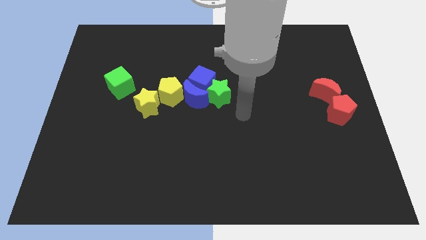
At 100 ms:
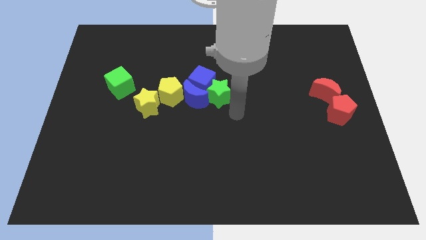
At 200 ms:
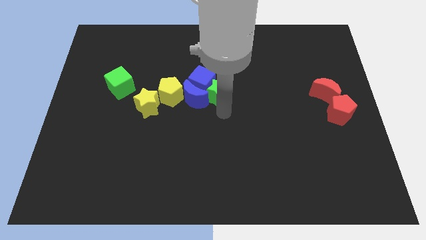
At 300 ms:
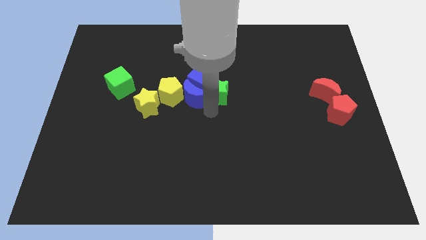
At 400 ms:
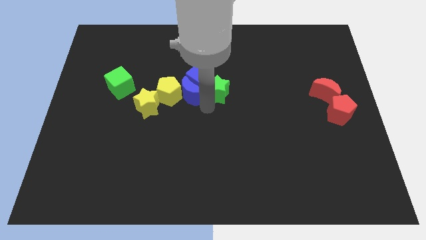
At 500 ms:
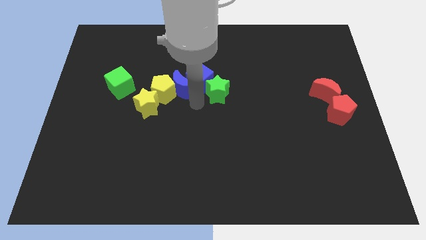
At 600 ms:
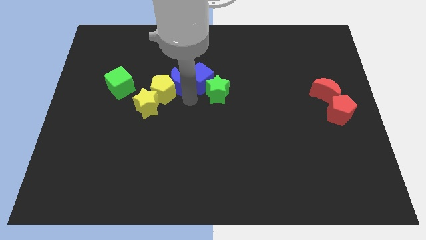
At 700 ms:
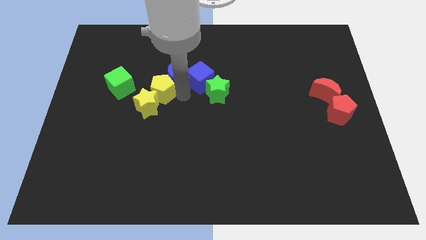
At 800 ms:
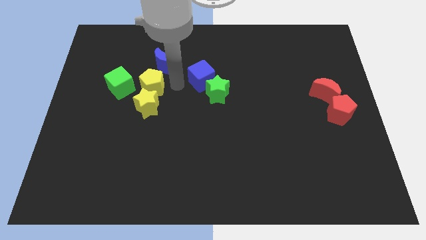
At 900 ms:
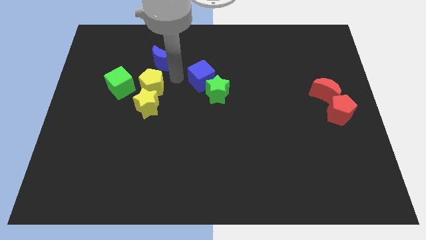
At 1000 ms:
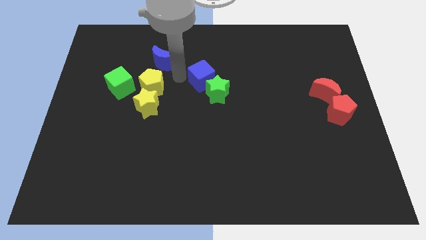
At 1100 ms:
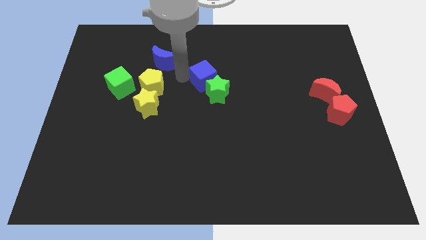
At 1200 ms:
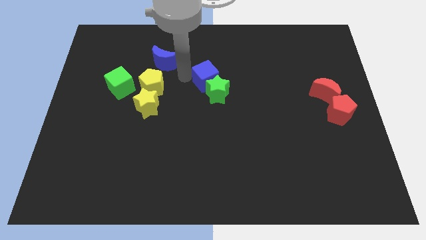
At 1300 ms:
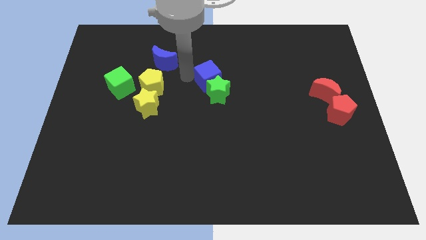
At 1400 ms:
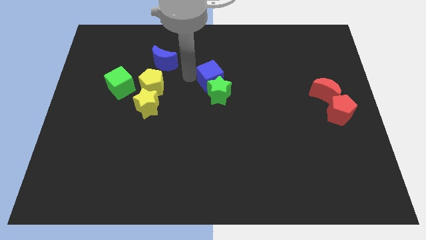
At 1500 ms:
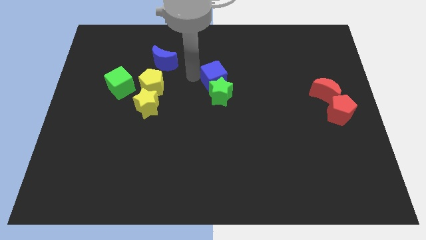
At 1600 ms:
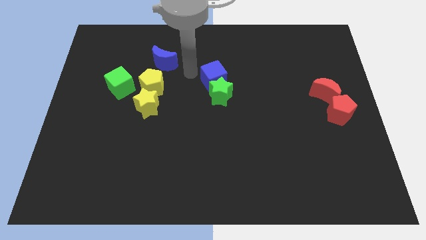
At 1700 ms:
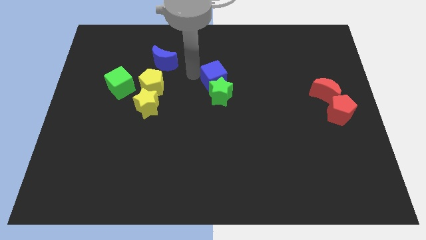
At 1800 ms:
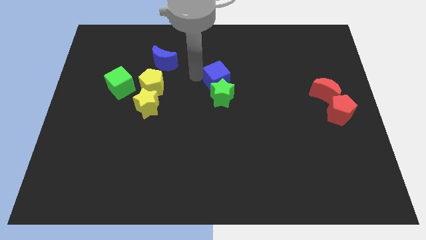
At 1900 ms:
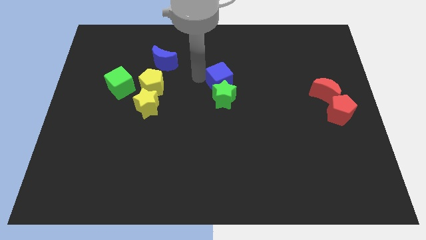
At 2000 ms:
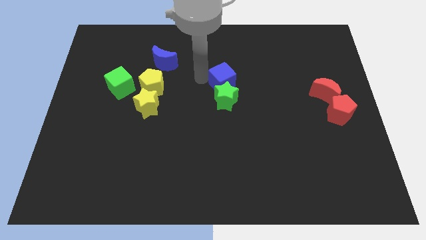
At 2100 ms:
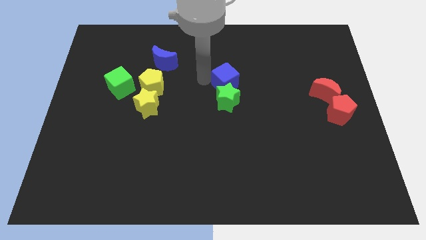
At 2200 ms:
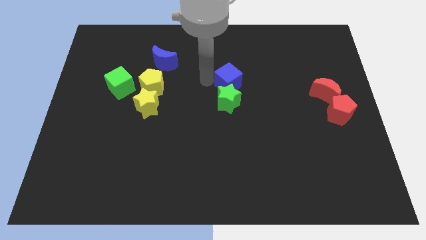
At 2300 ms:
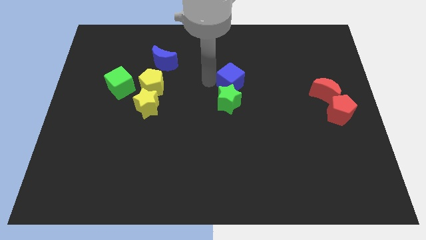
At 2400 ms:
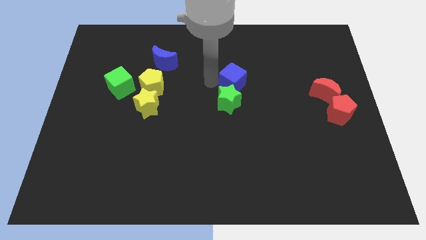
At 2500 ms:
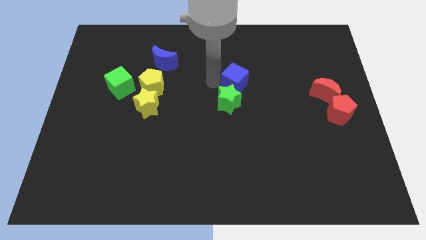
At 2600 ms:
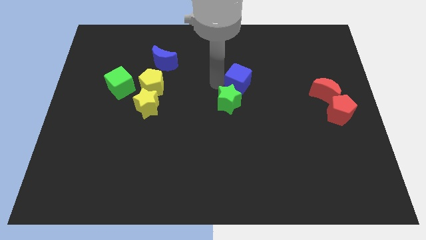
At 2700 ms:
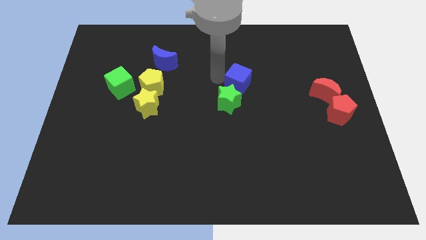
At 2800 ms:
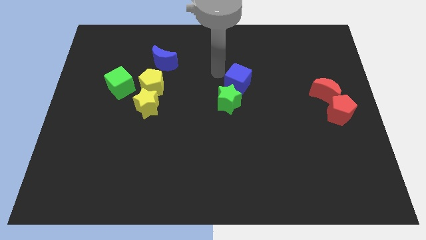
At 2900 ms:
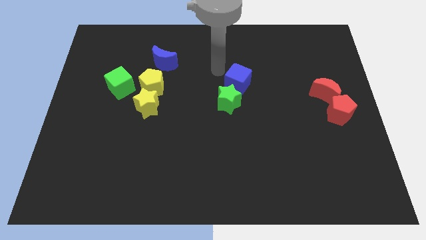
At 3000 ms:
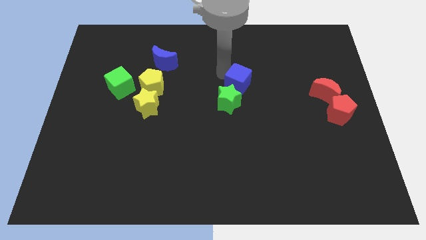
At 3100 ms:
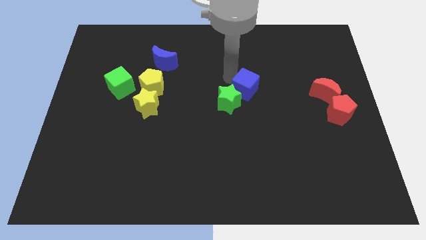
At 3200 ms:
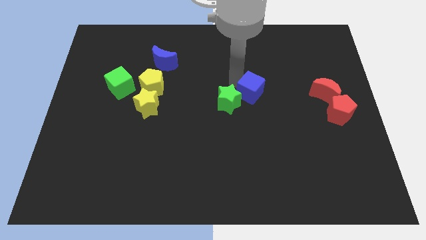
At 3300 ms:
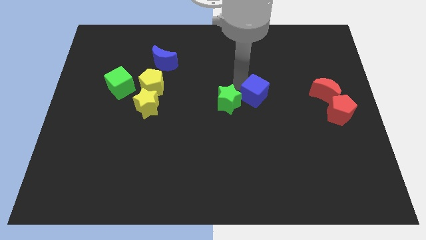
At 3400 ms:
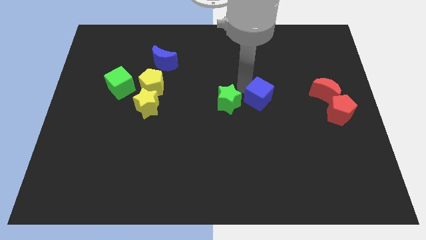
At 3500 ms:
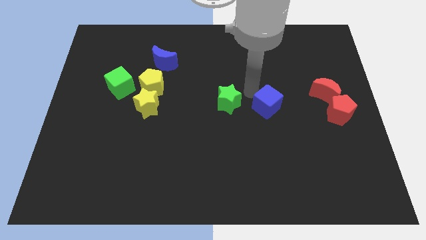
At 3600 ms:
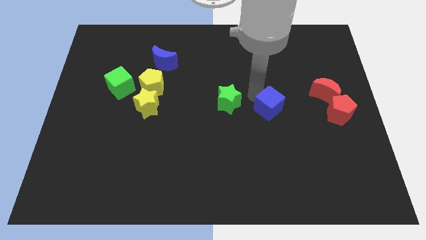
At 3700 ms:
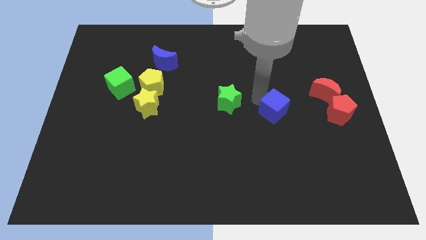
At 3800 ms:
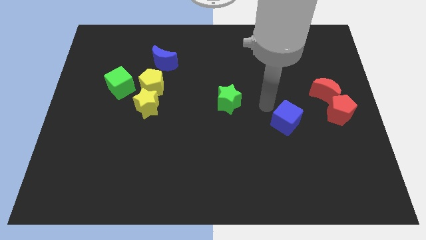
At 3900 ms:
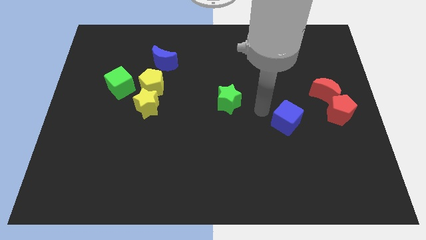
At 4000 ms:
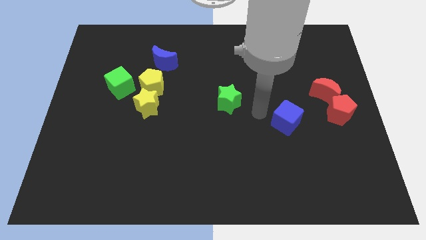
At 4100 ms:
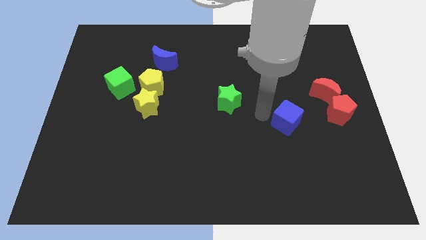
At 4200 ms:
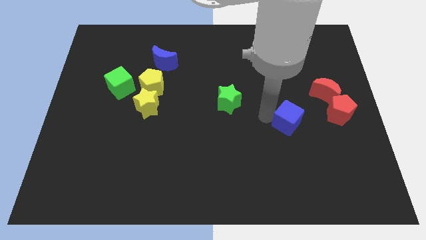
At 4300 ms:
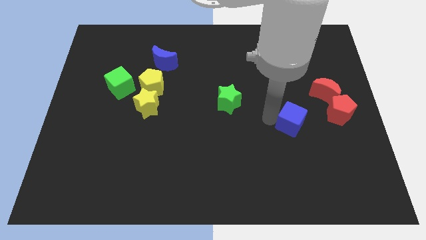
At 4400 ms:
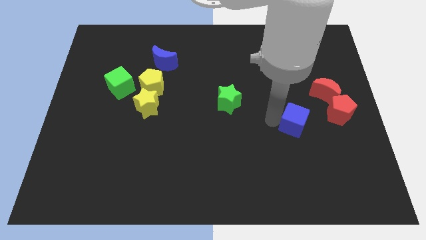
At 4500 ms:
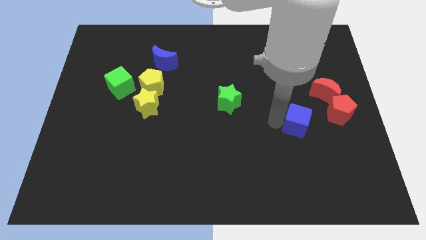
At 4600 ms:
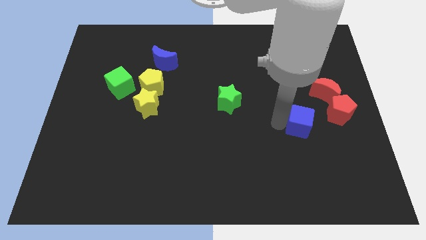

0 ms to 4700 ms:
push the blue cube to the bottom left side of the red pentagon

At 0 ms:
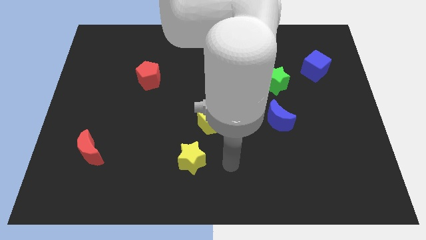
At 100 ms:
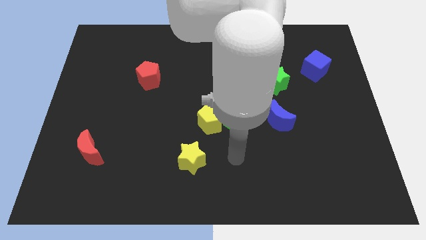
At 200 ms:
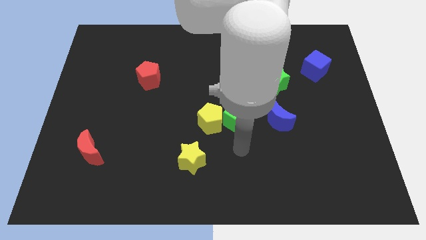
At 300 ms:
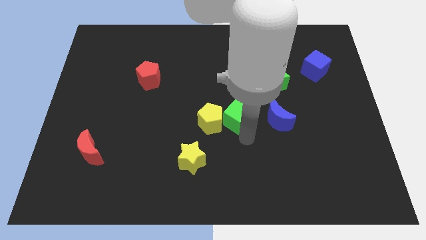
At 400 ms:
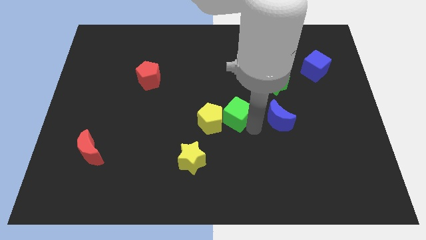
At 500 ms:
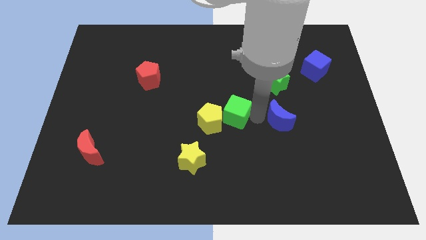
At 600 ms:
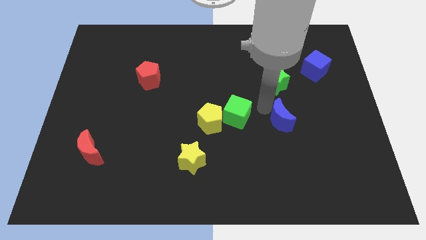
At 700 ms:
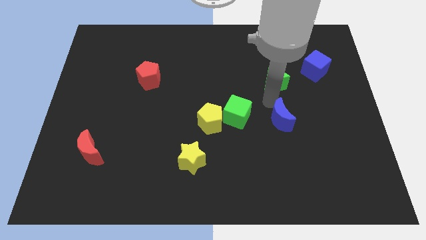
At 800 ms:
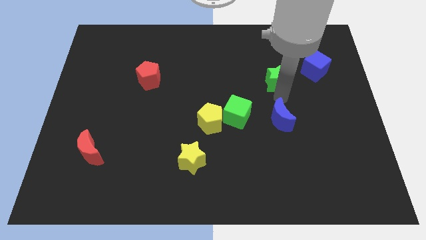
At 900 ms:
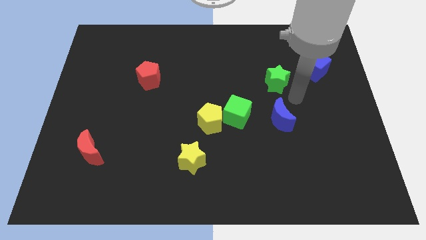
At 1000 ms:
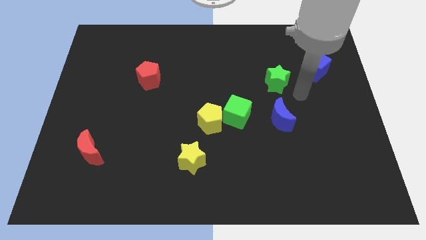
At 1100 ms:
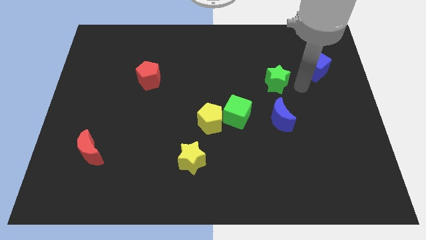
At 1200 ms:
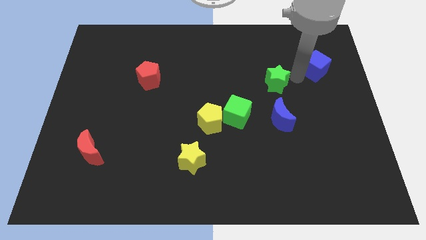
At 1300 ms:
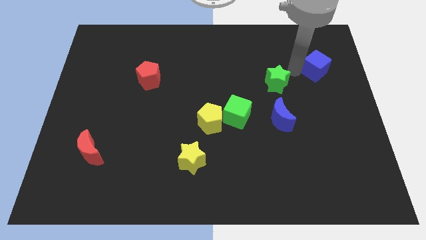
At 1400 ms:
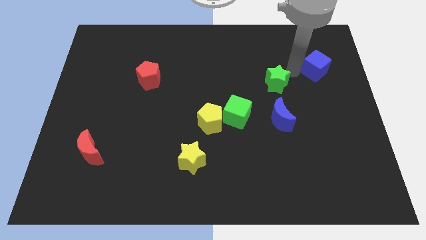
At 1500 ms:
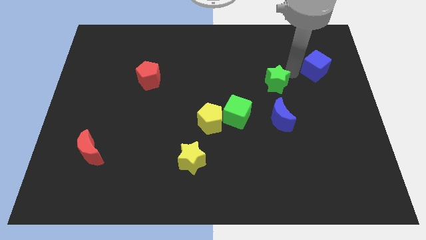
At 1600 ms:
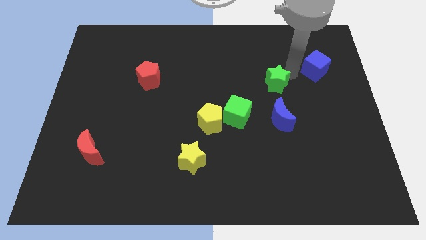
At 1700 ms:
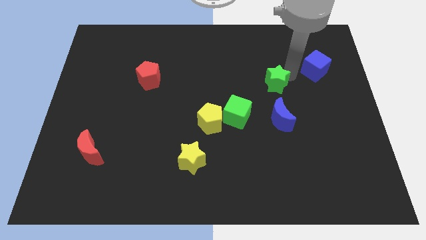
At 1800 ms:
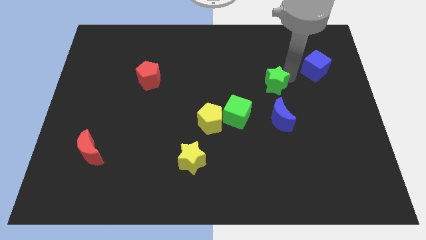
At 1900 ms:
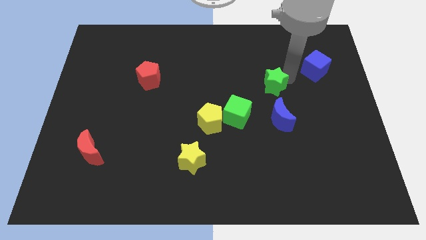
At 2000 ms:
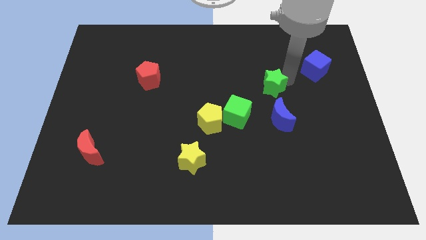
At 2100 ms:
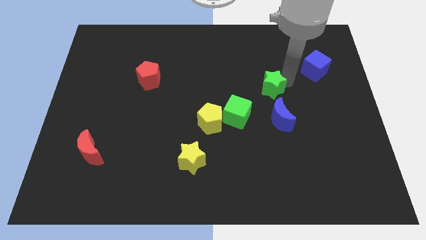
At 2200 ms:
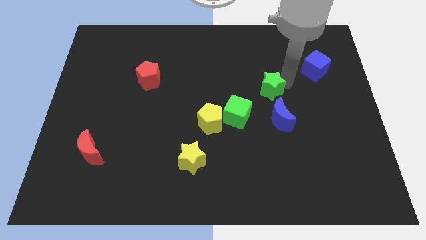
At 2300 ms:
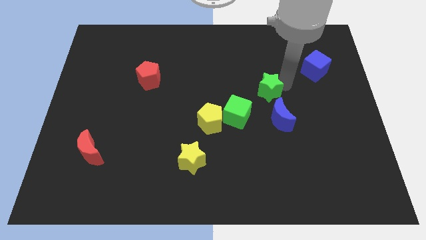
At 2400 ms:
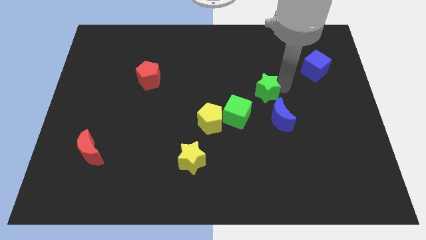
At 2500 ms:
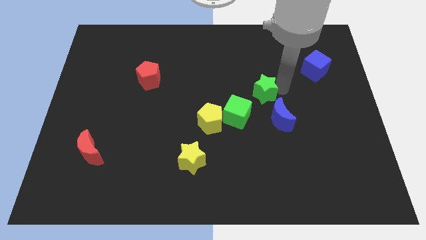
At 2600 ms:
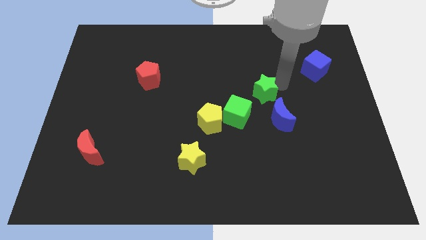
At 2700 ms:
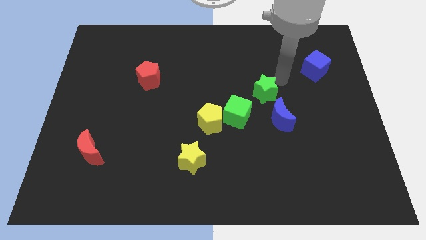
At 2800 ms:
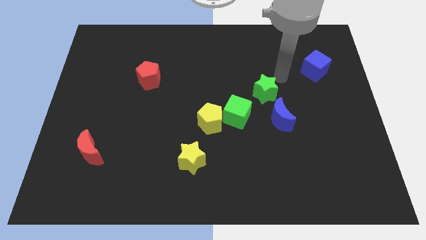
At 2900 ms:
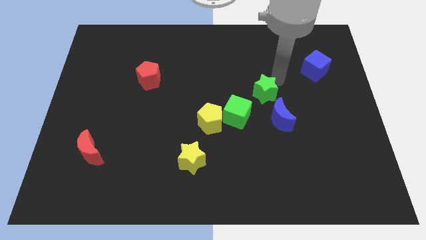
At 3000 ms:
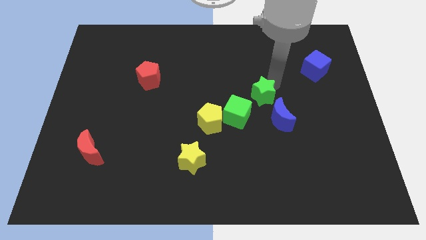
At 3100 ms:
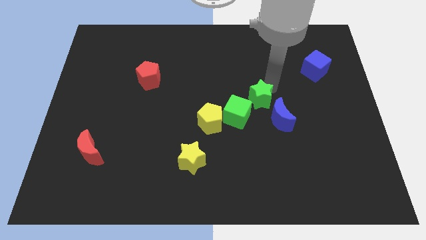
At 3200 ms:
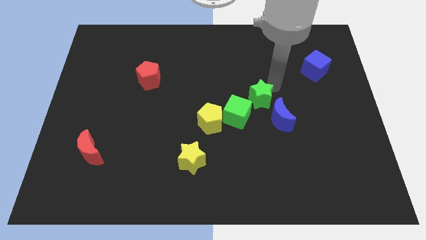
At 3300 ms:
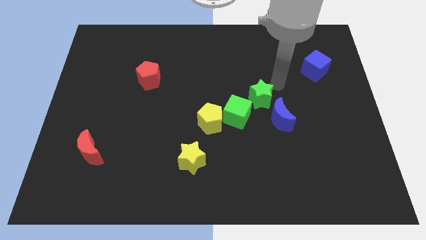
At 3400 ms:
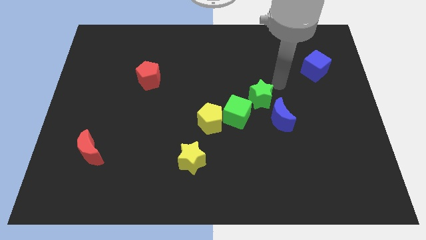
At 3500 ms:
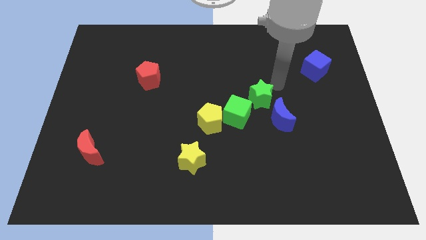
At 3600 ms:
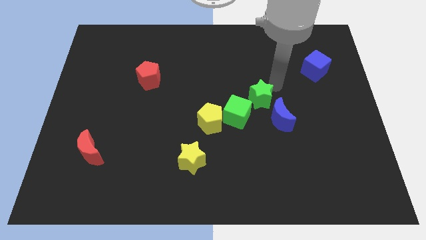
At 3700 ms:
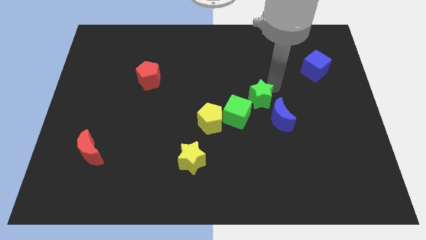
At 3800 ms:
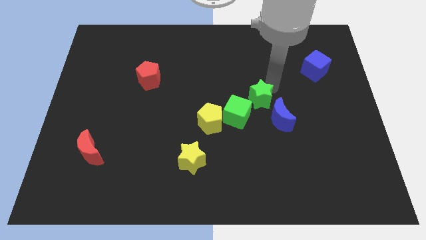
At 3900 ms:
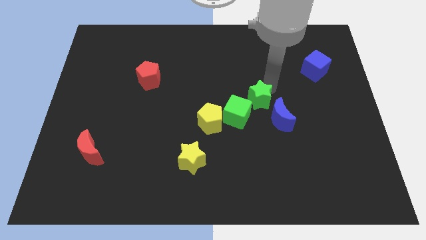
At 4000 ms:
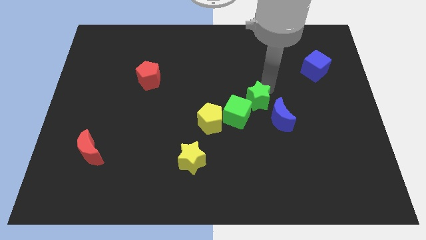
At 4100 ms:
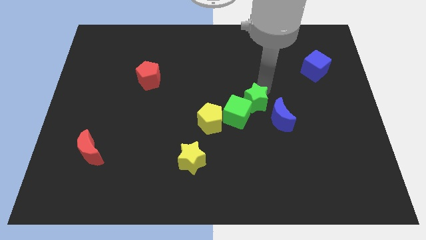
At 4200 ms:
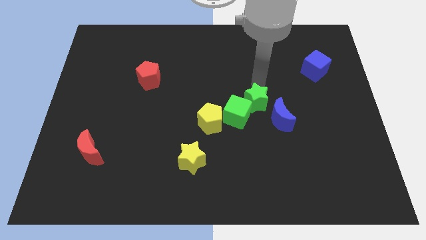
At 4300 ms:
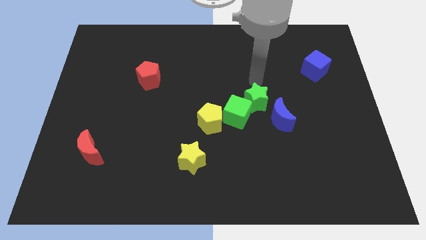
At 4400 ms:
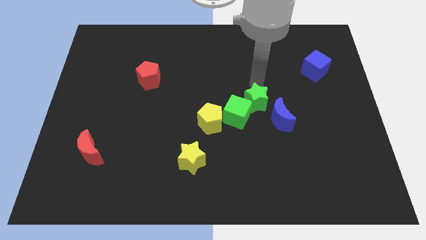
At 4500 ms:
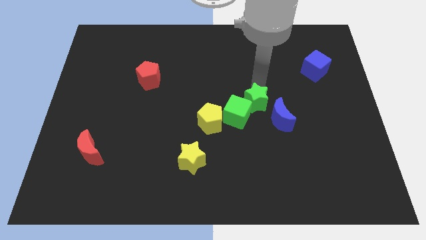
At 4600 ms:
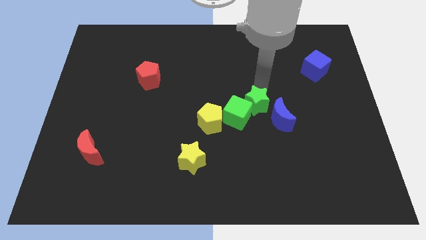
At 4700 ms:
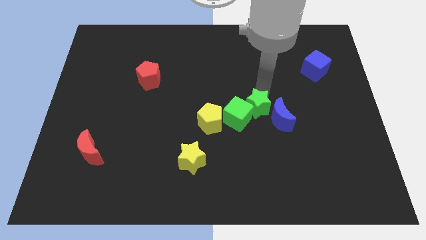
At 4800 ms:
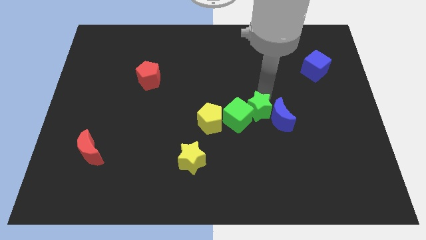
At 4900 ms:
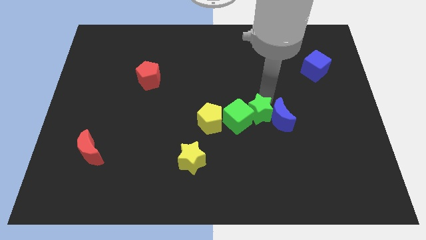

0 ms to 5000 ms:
slide the green star to the bottom left side of the blue moon
